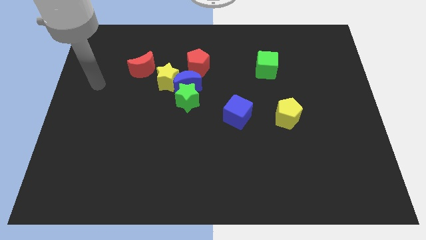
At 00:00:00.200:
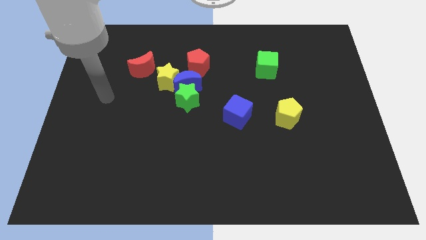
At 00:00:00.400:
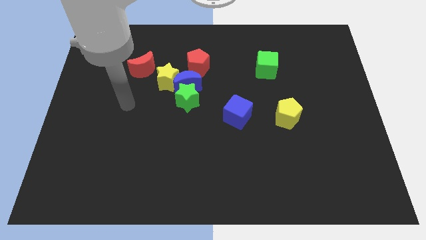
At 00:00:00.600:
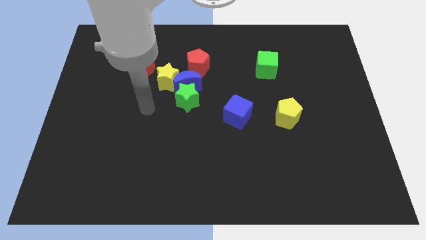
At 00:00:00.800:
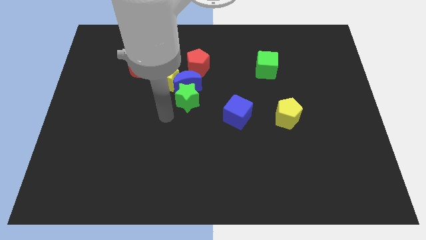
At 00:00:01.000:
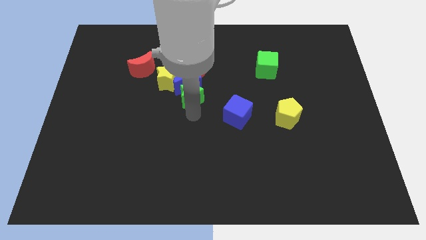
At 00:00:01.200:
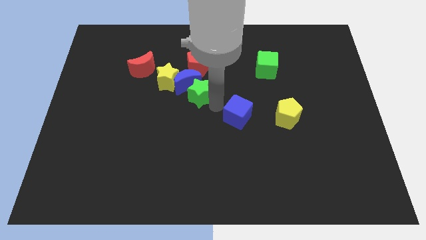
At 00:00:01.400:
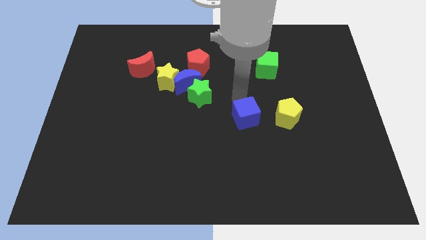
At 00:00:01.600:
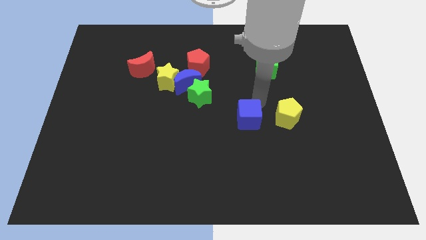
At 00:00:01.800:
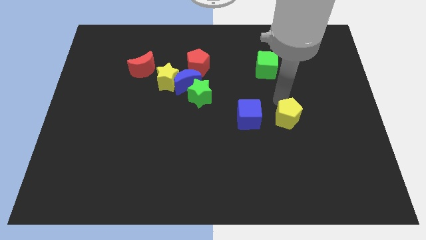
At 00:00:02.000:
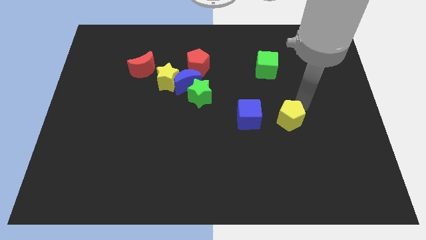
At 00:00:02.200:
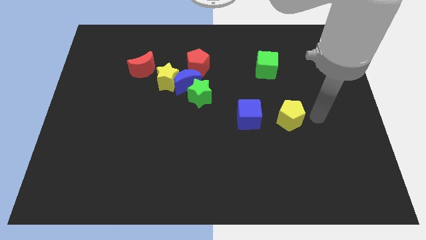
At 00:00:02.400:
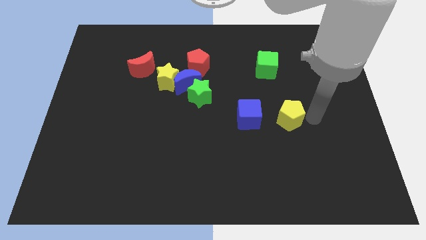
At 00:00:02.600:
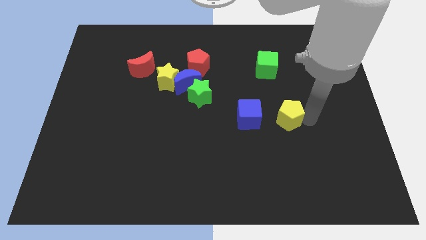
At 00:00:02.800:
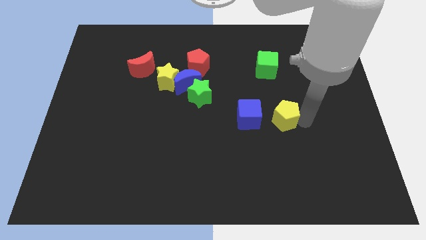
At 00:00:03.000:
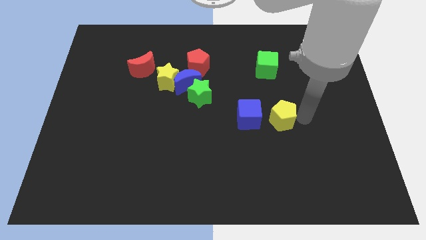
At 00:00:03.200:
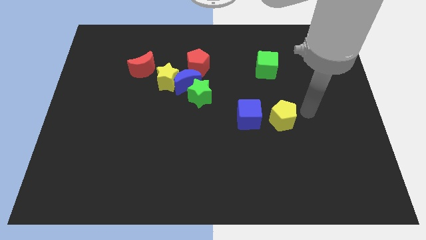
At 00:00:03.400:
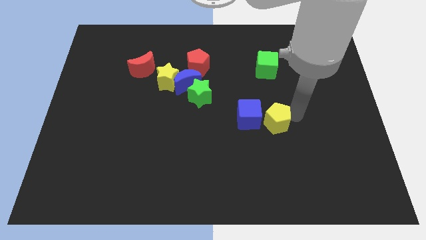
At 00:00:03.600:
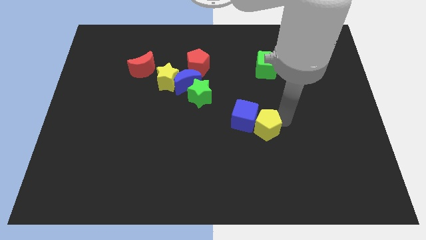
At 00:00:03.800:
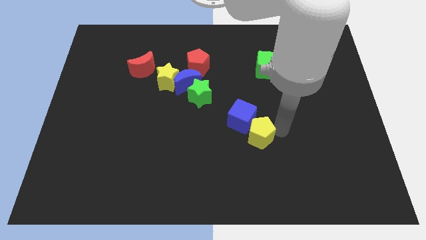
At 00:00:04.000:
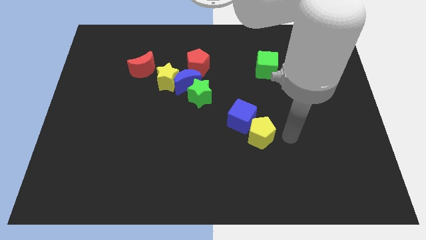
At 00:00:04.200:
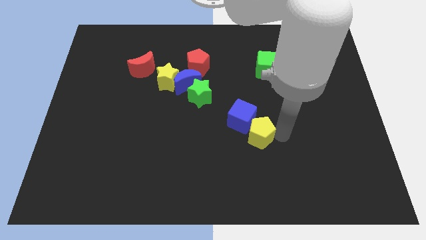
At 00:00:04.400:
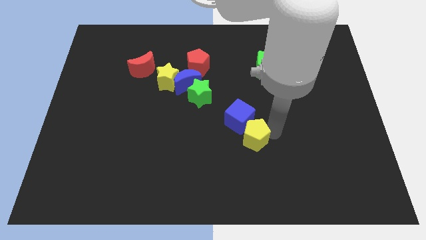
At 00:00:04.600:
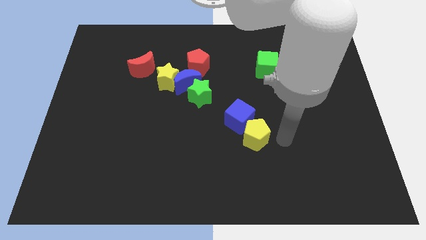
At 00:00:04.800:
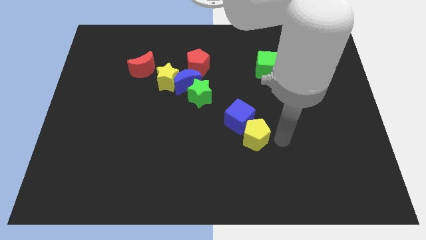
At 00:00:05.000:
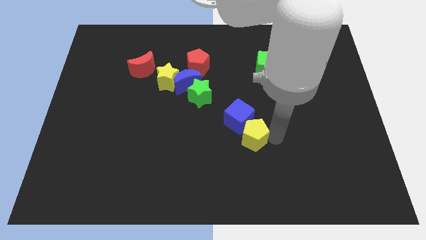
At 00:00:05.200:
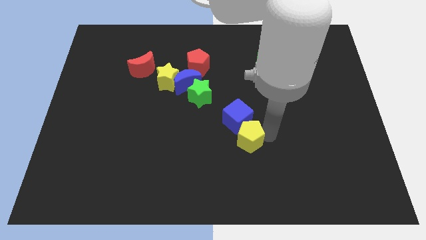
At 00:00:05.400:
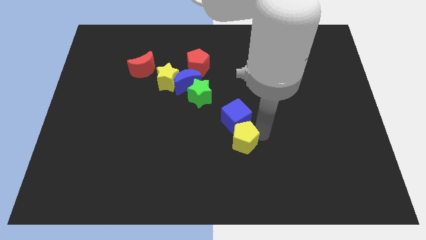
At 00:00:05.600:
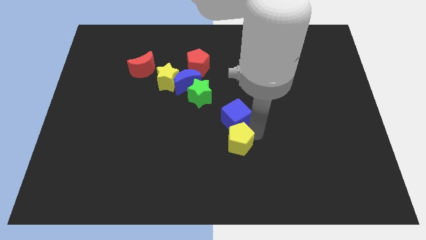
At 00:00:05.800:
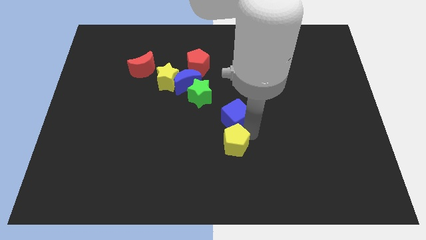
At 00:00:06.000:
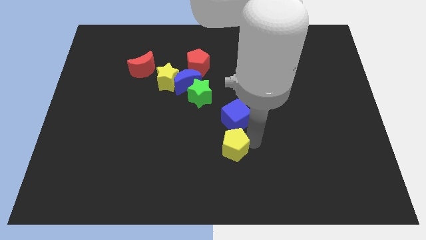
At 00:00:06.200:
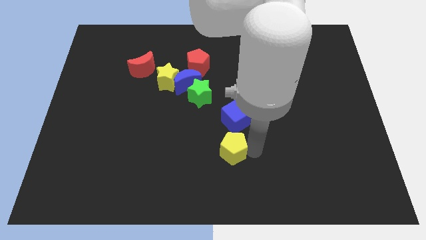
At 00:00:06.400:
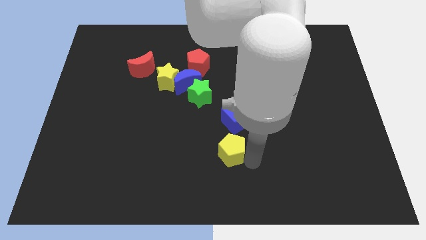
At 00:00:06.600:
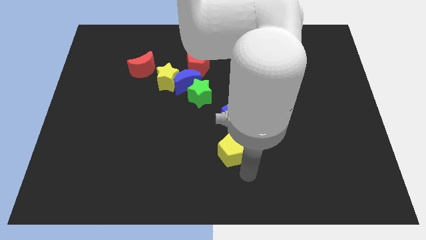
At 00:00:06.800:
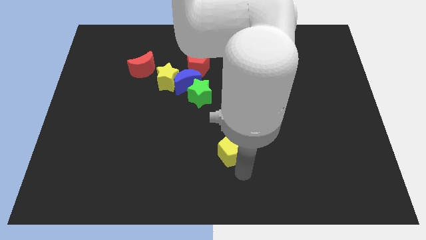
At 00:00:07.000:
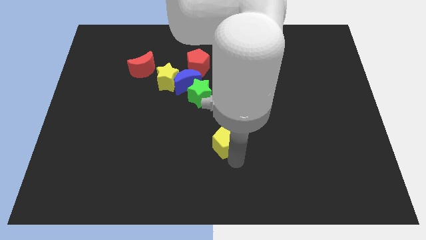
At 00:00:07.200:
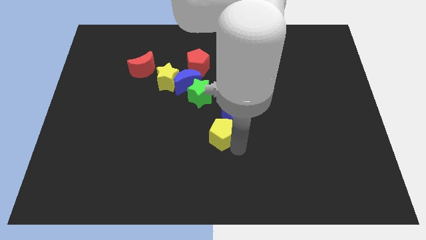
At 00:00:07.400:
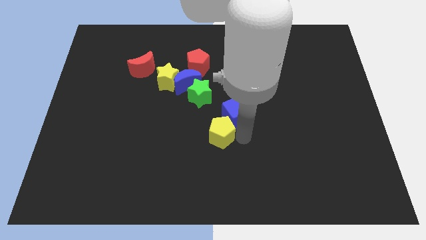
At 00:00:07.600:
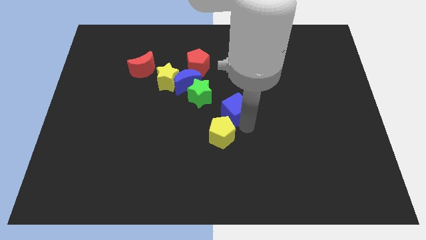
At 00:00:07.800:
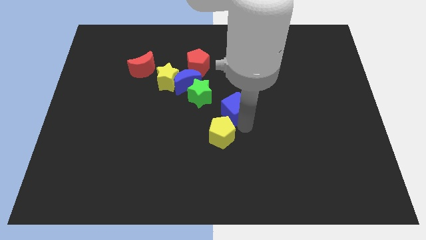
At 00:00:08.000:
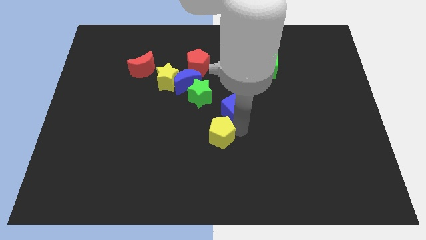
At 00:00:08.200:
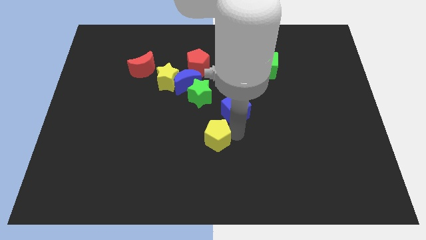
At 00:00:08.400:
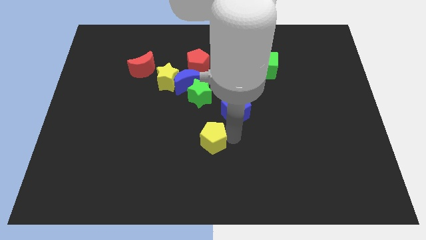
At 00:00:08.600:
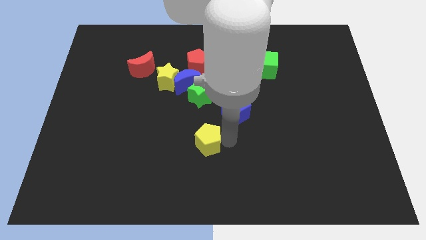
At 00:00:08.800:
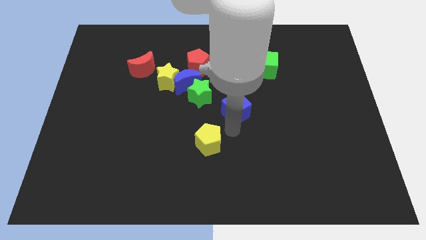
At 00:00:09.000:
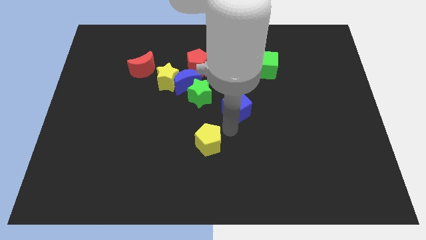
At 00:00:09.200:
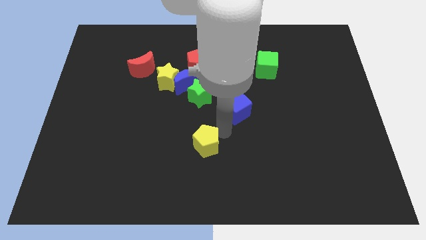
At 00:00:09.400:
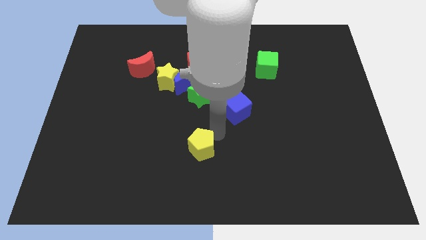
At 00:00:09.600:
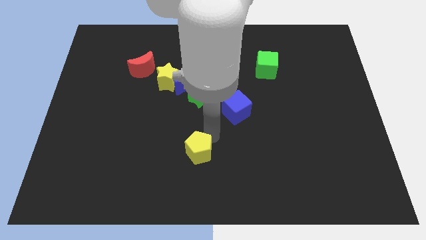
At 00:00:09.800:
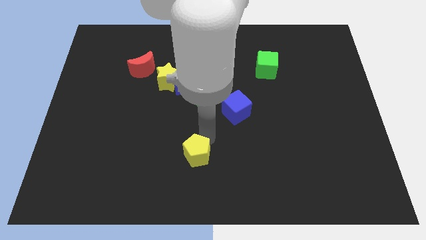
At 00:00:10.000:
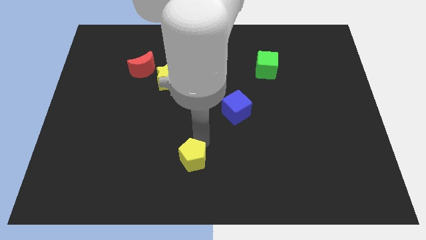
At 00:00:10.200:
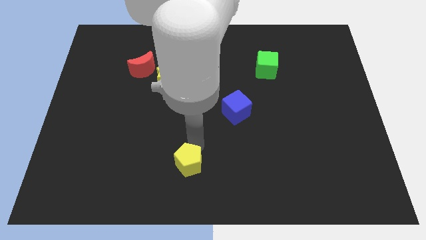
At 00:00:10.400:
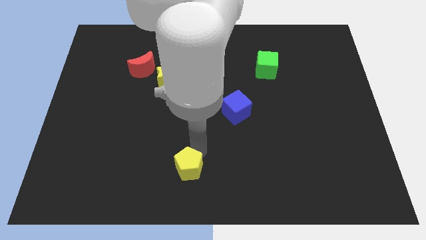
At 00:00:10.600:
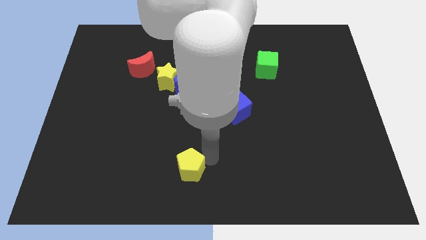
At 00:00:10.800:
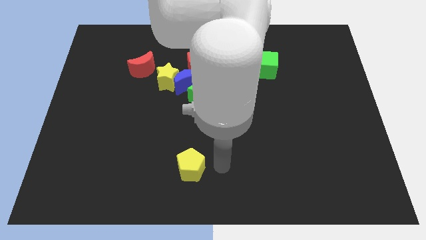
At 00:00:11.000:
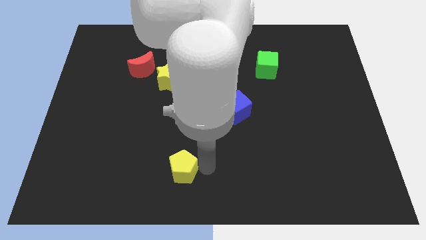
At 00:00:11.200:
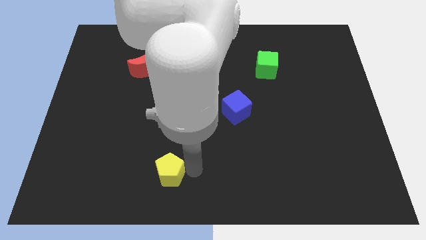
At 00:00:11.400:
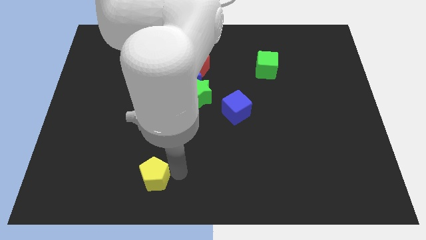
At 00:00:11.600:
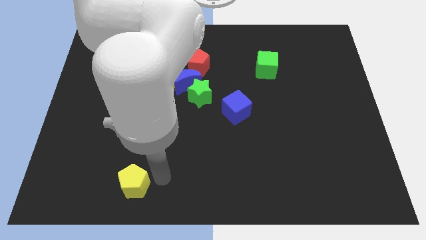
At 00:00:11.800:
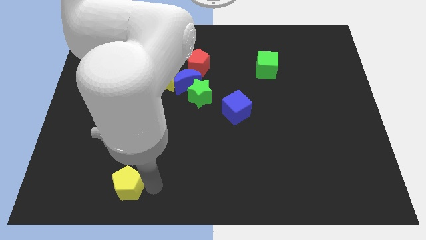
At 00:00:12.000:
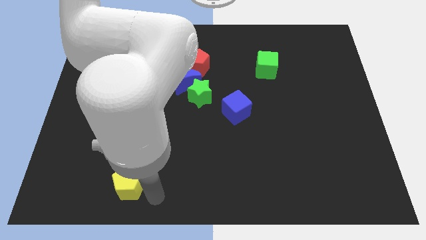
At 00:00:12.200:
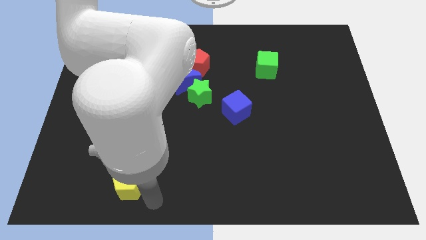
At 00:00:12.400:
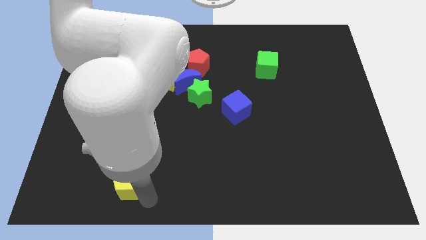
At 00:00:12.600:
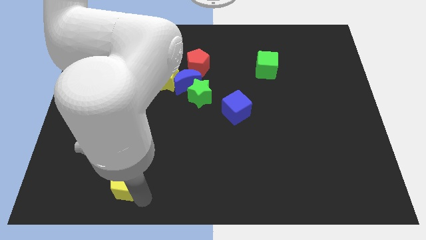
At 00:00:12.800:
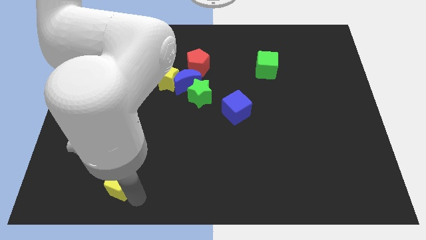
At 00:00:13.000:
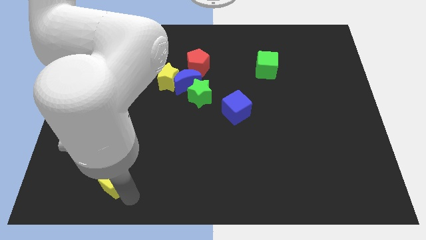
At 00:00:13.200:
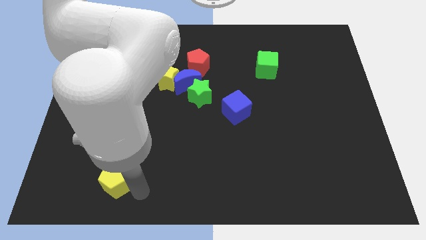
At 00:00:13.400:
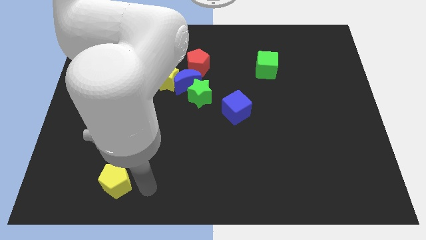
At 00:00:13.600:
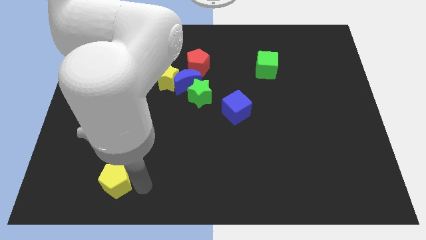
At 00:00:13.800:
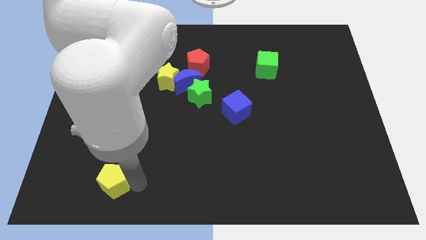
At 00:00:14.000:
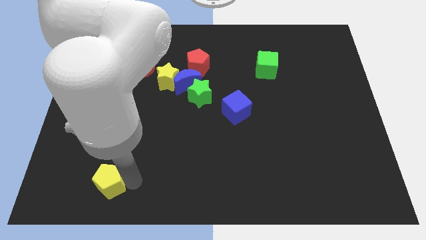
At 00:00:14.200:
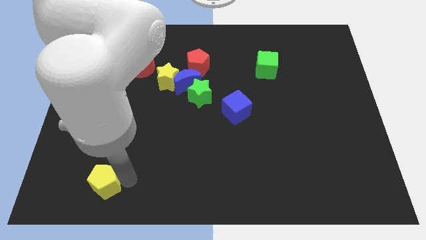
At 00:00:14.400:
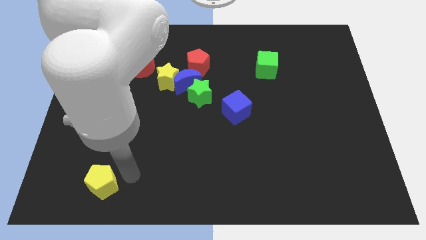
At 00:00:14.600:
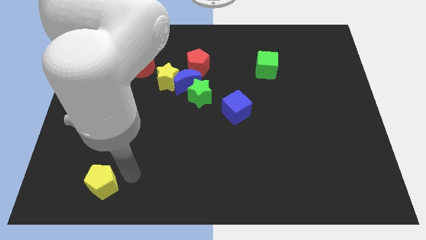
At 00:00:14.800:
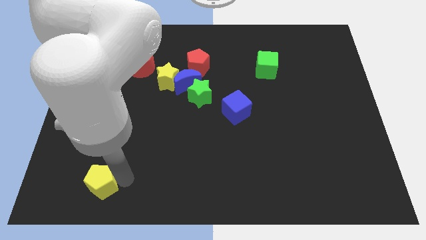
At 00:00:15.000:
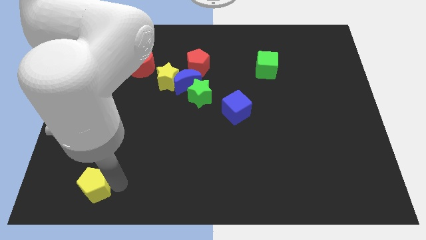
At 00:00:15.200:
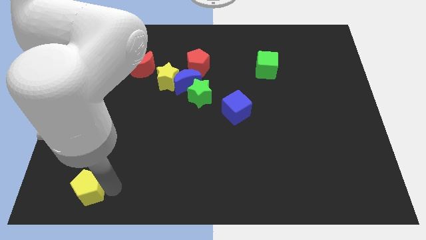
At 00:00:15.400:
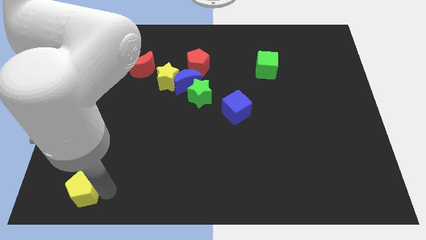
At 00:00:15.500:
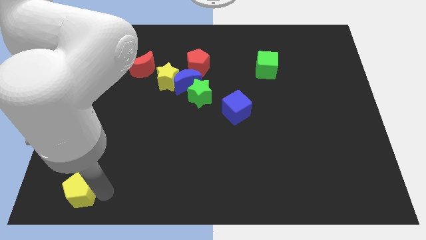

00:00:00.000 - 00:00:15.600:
move the yellow pentagon to the bottom left of the board
